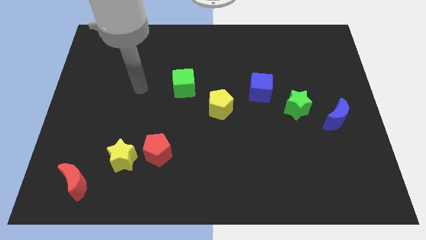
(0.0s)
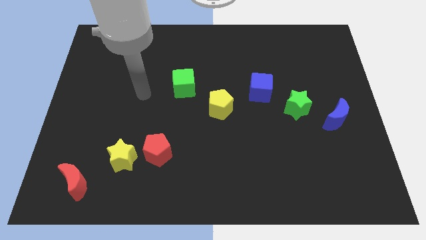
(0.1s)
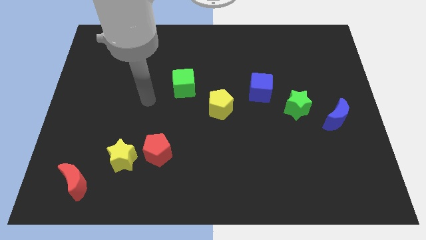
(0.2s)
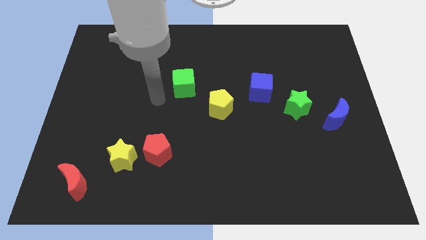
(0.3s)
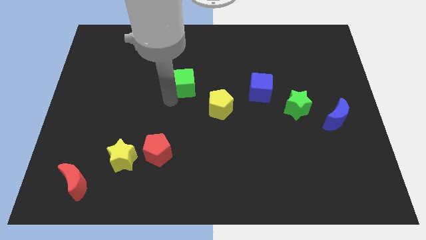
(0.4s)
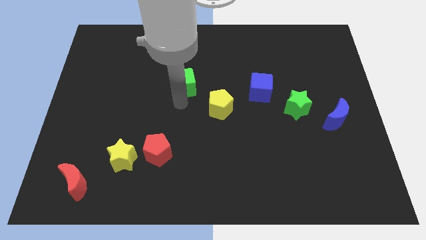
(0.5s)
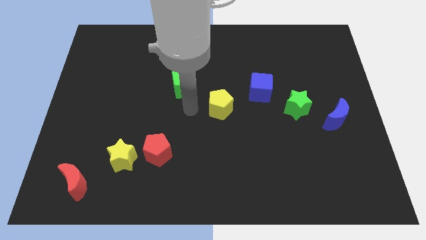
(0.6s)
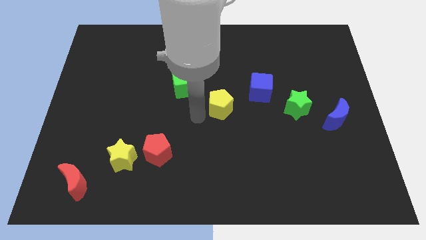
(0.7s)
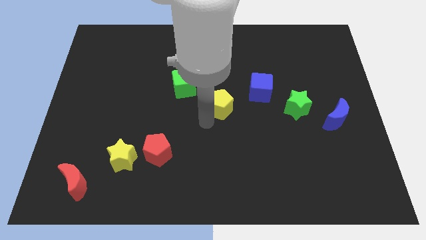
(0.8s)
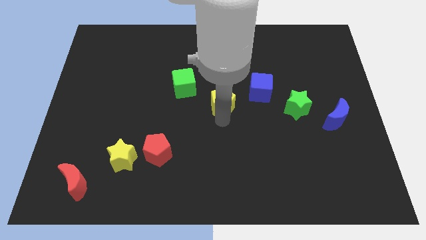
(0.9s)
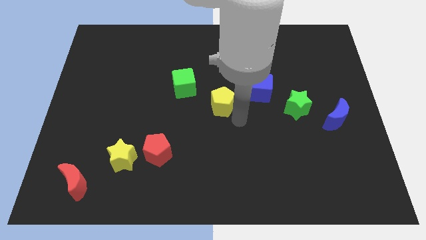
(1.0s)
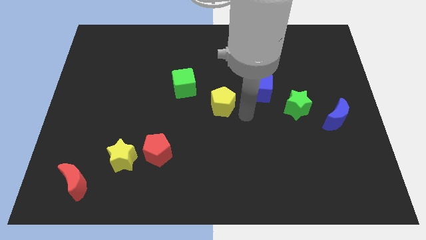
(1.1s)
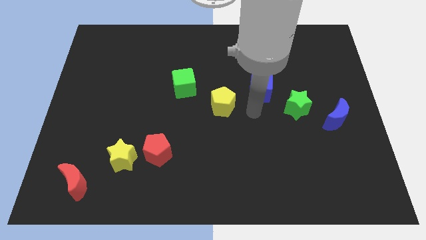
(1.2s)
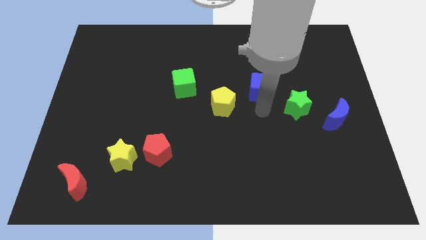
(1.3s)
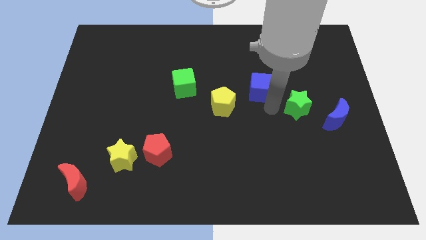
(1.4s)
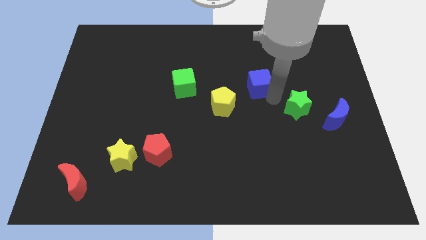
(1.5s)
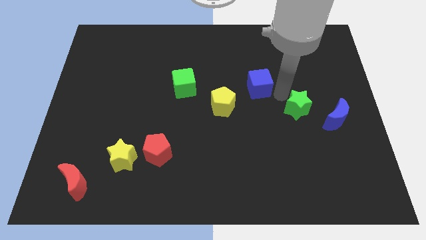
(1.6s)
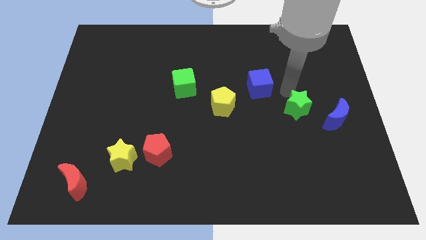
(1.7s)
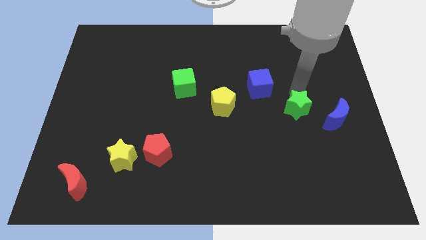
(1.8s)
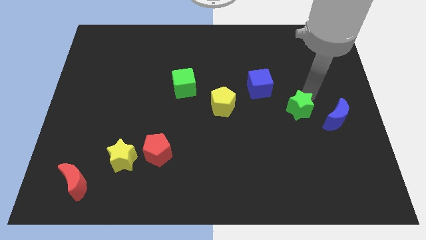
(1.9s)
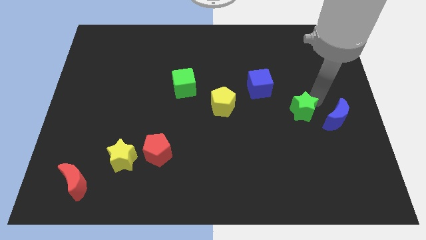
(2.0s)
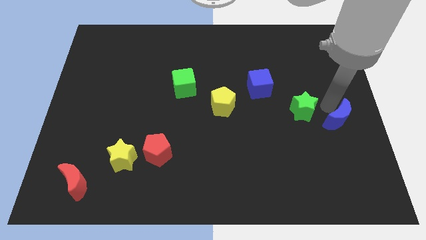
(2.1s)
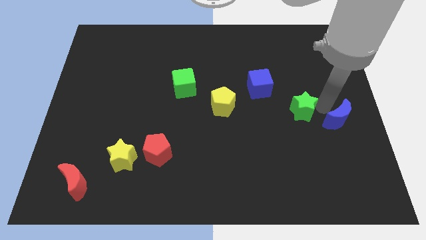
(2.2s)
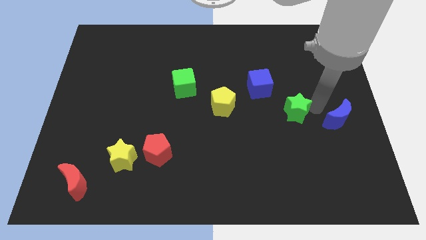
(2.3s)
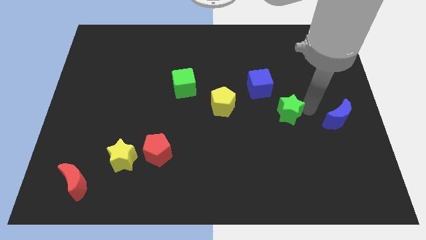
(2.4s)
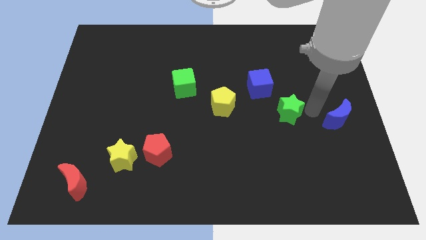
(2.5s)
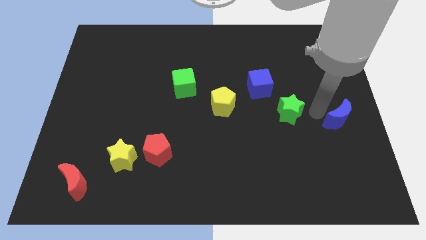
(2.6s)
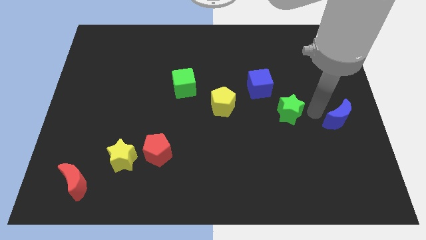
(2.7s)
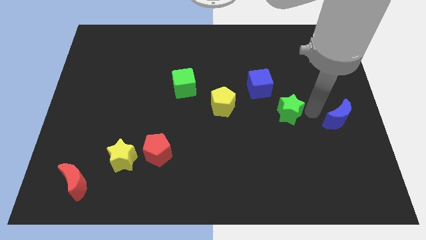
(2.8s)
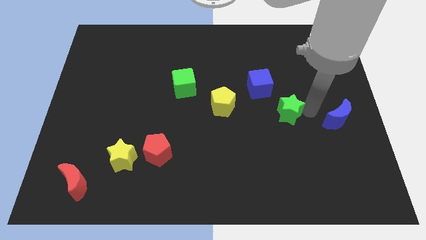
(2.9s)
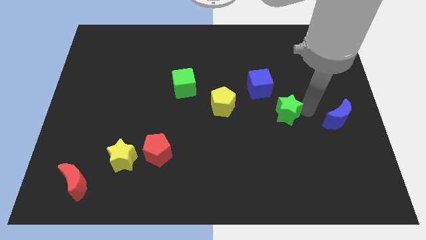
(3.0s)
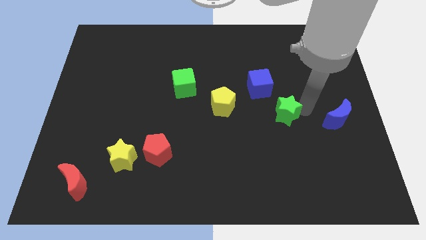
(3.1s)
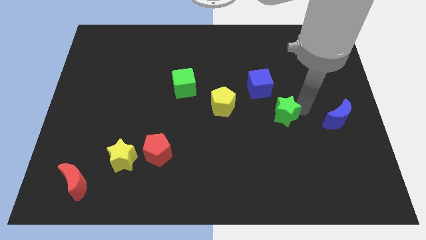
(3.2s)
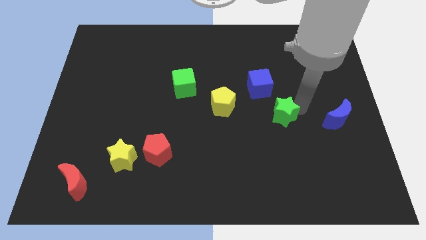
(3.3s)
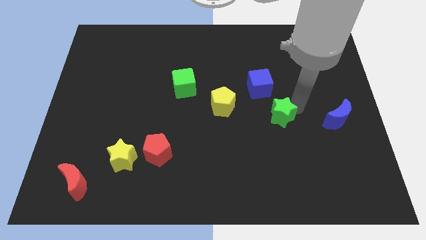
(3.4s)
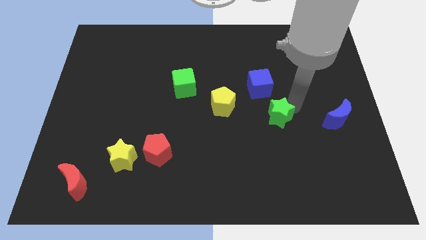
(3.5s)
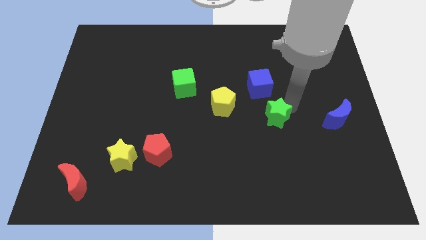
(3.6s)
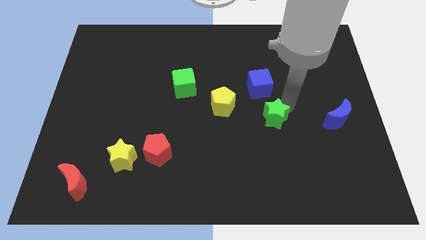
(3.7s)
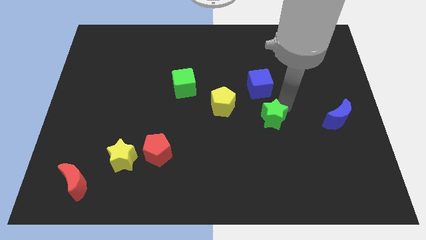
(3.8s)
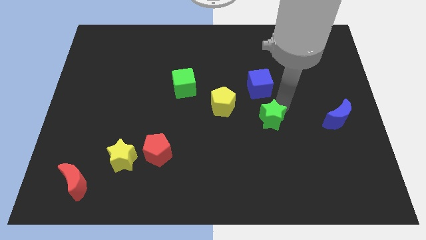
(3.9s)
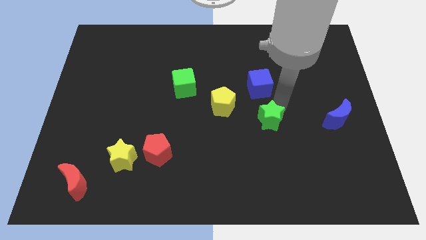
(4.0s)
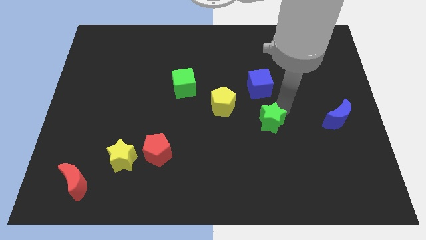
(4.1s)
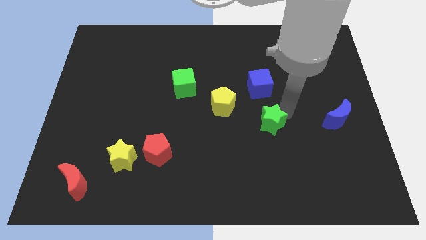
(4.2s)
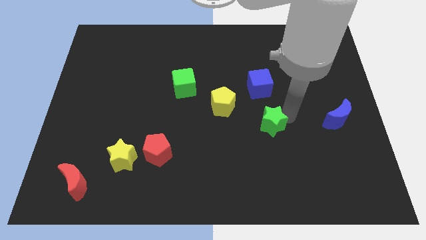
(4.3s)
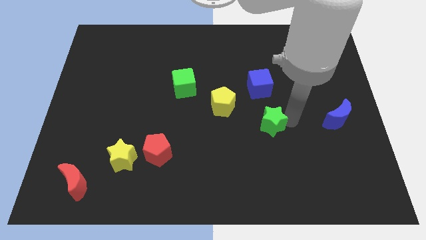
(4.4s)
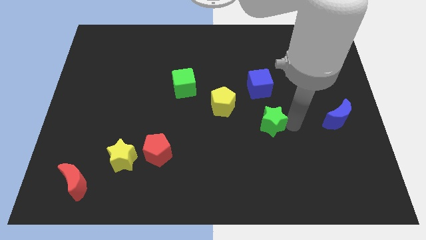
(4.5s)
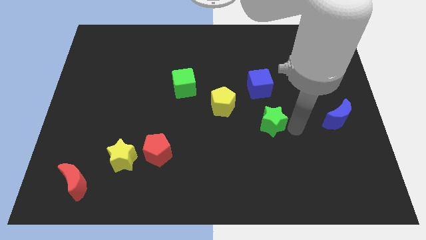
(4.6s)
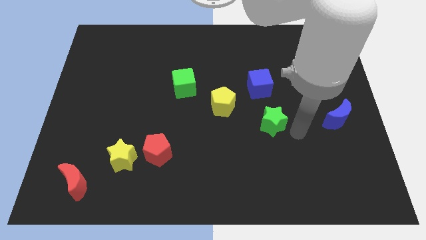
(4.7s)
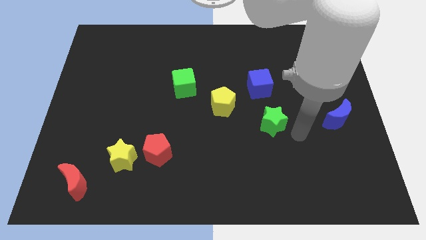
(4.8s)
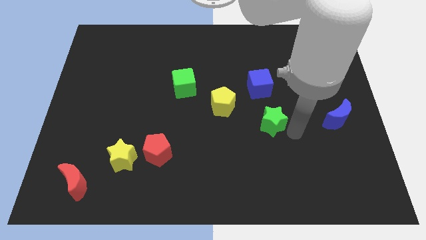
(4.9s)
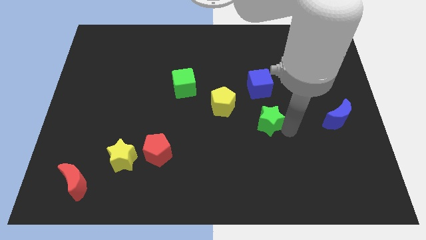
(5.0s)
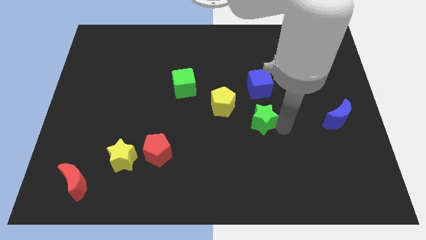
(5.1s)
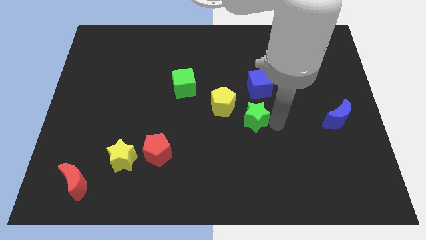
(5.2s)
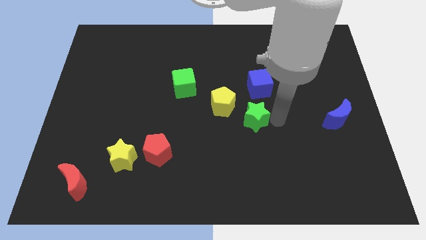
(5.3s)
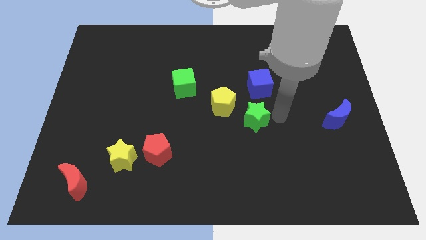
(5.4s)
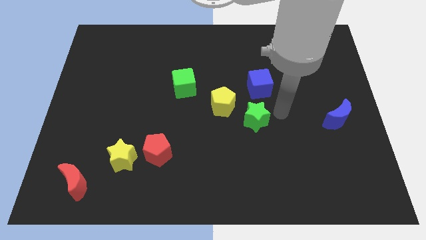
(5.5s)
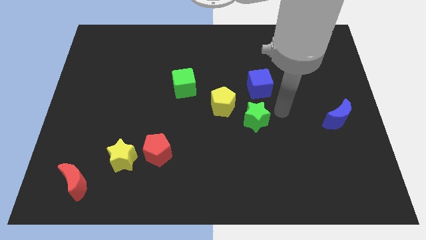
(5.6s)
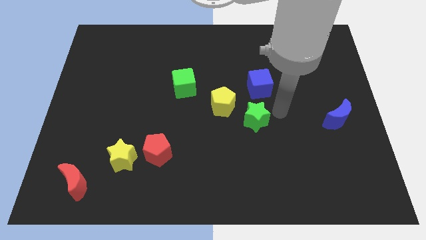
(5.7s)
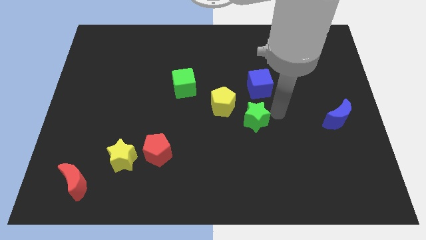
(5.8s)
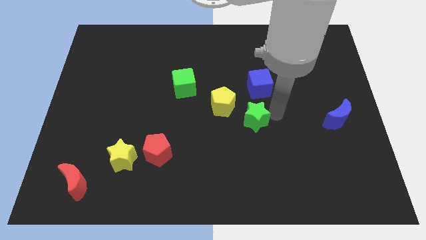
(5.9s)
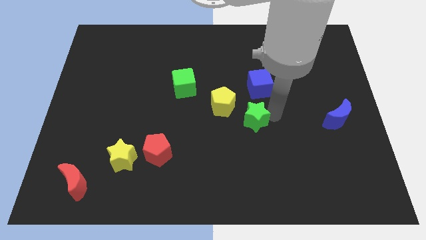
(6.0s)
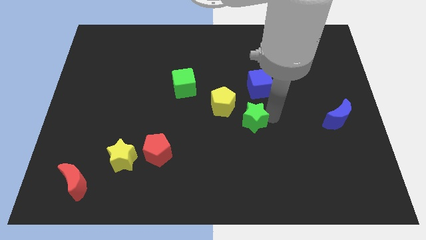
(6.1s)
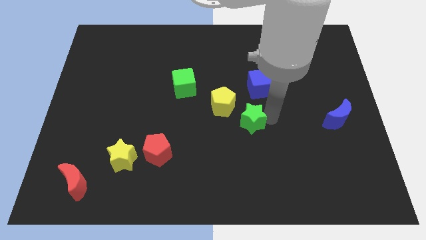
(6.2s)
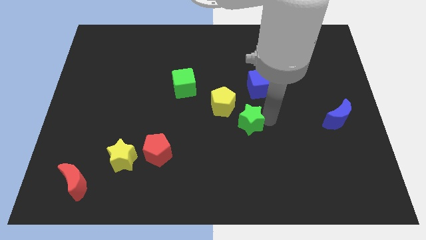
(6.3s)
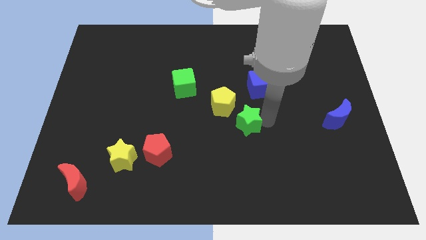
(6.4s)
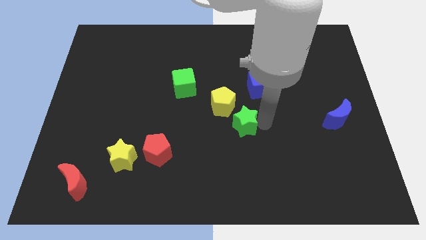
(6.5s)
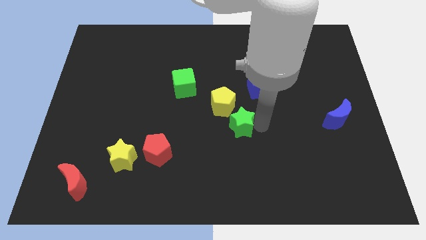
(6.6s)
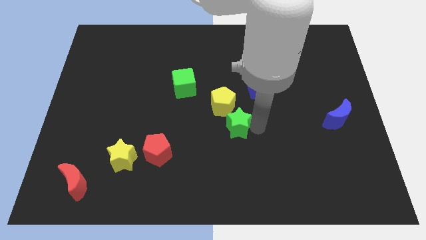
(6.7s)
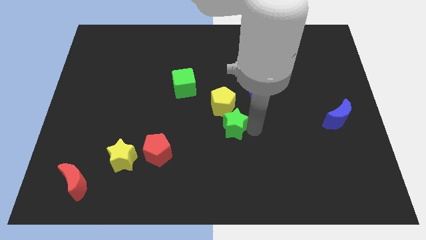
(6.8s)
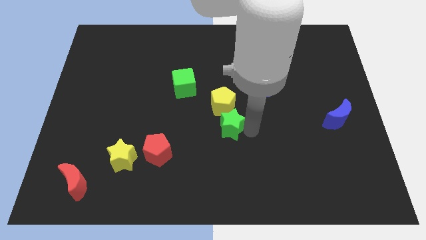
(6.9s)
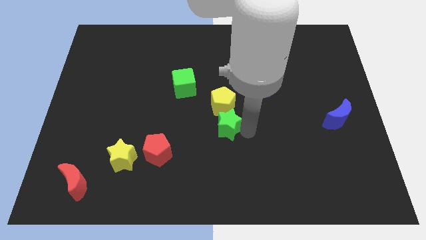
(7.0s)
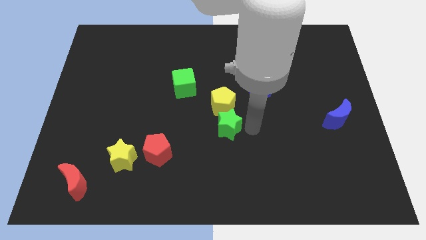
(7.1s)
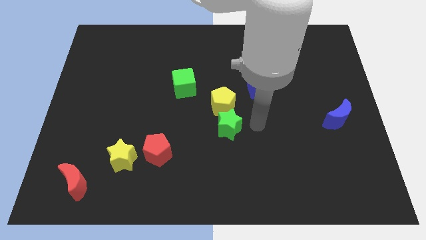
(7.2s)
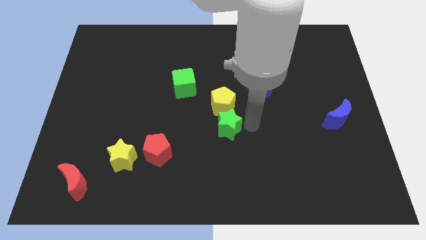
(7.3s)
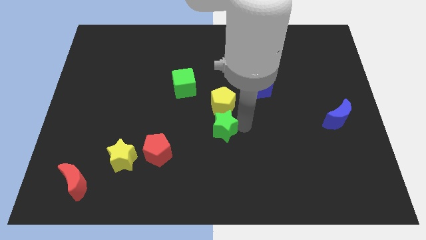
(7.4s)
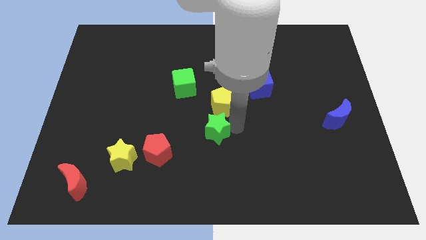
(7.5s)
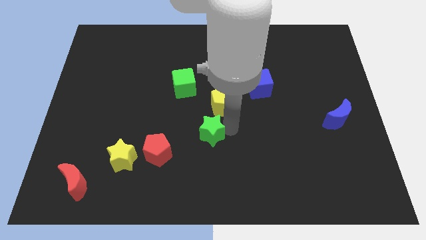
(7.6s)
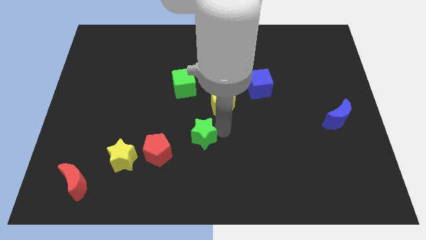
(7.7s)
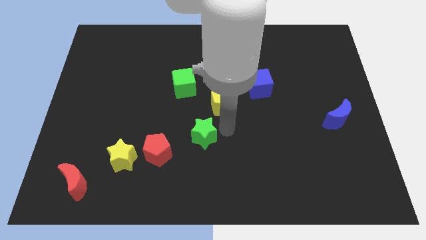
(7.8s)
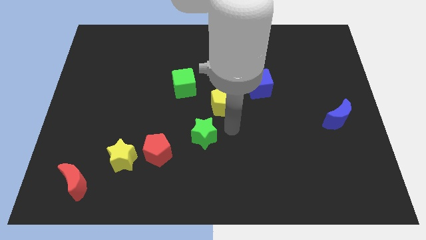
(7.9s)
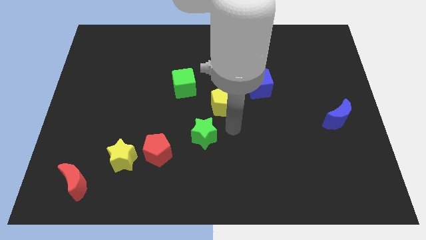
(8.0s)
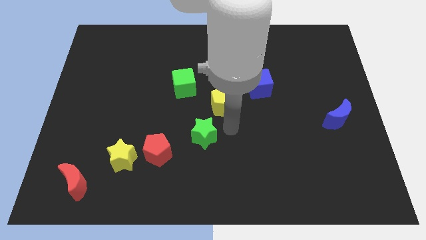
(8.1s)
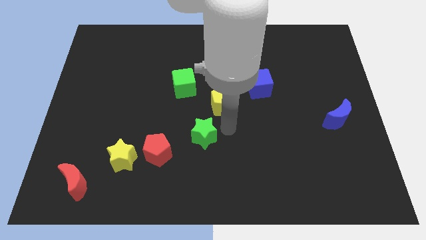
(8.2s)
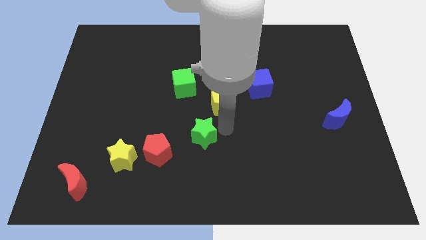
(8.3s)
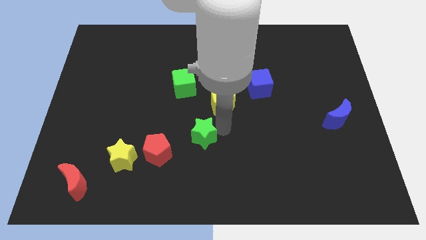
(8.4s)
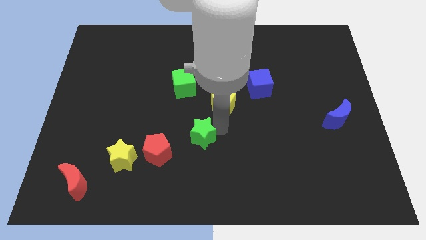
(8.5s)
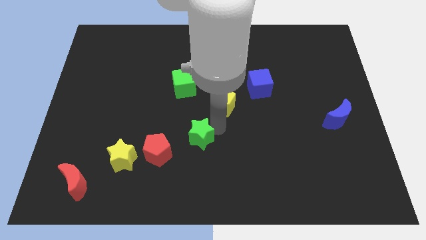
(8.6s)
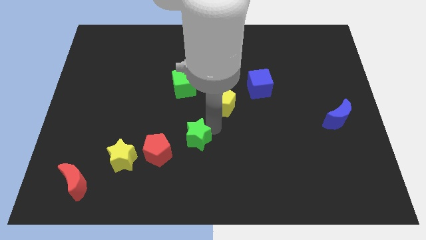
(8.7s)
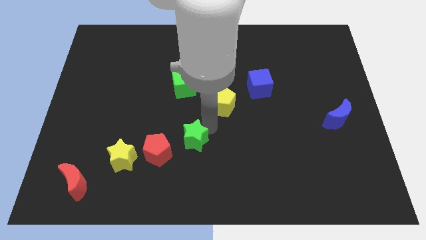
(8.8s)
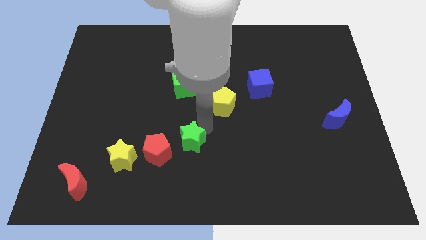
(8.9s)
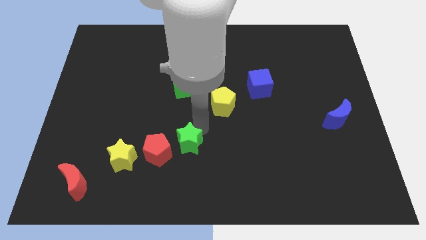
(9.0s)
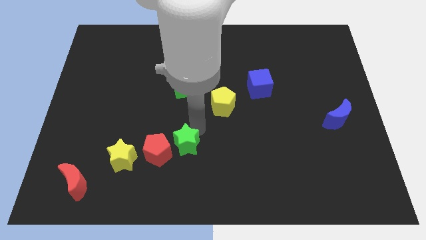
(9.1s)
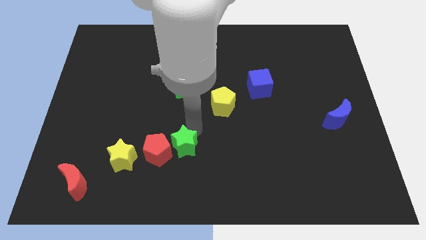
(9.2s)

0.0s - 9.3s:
slide the green star to the red pentagon
